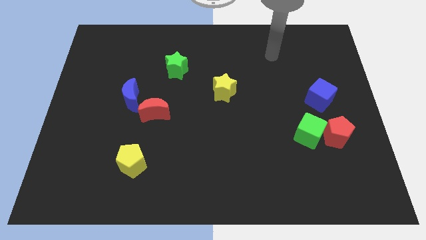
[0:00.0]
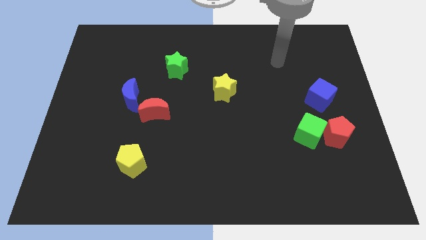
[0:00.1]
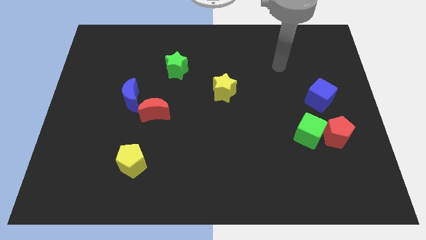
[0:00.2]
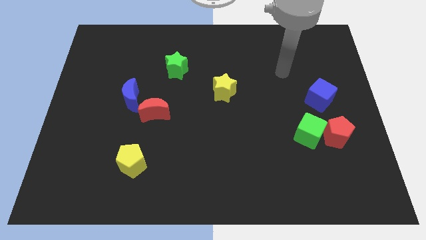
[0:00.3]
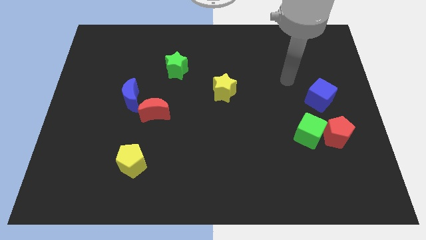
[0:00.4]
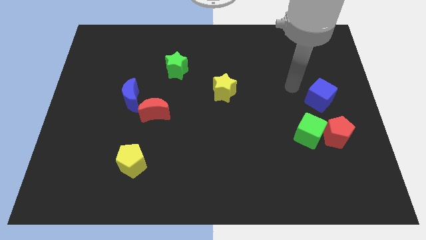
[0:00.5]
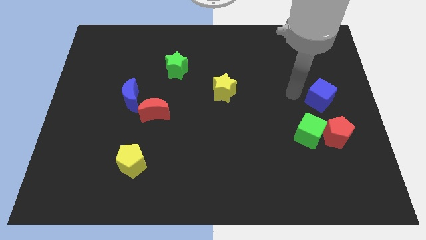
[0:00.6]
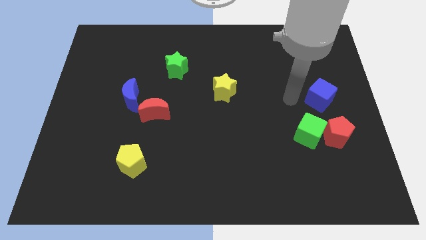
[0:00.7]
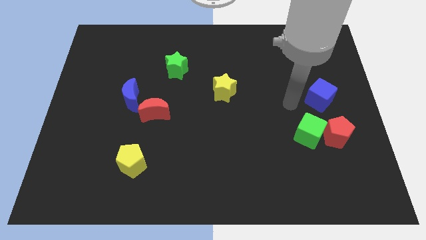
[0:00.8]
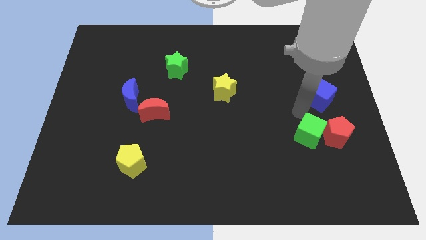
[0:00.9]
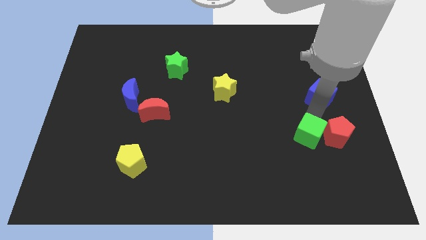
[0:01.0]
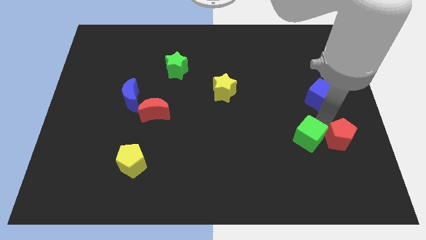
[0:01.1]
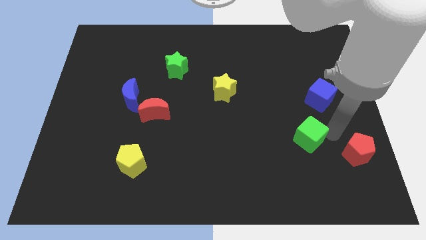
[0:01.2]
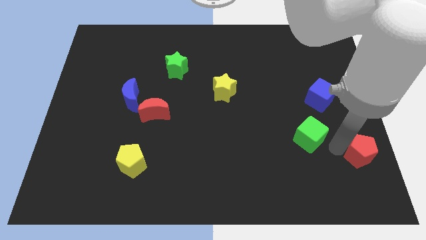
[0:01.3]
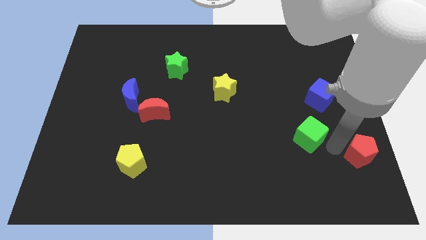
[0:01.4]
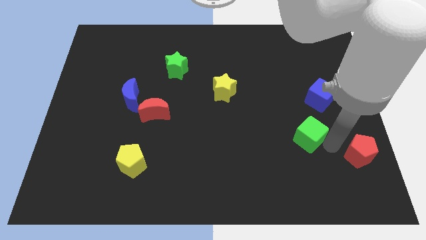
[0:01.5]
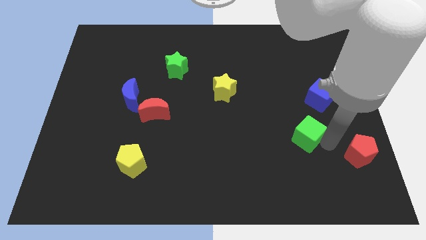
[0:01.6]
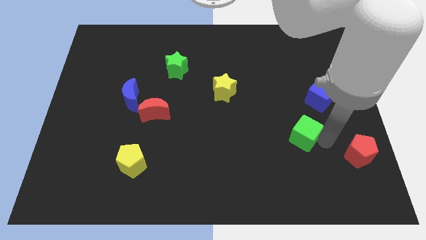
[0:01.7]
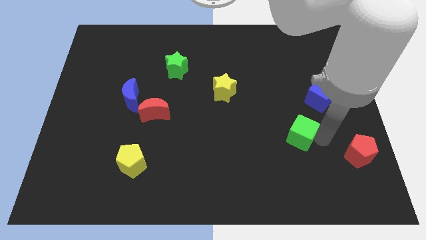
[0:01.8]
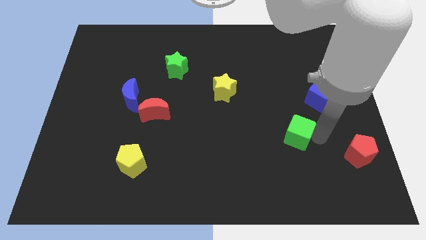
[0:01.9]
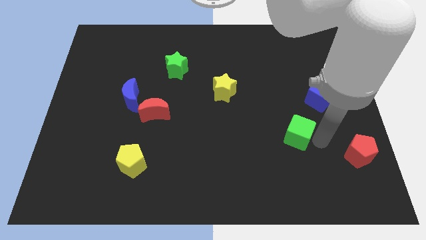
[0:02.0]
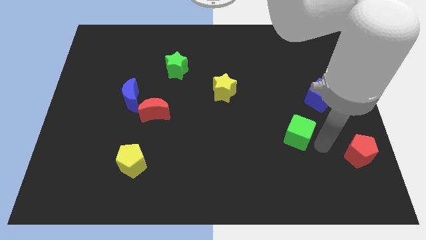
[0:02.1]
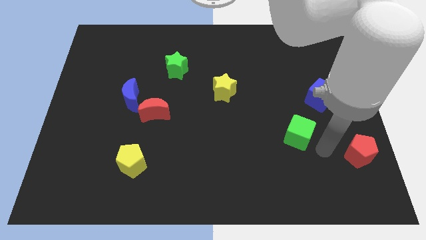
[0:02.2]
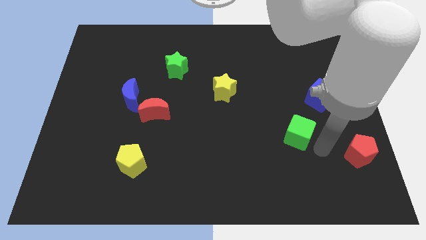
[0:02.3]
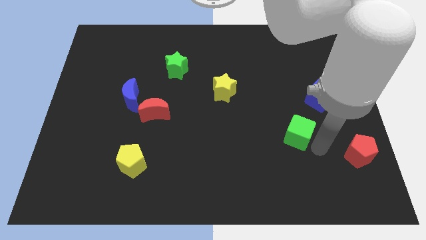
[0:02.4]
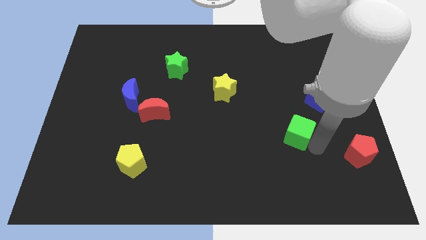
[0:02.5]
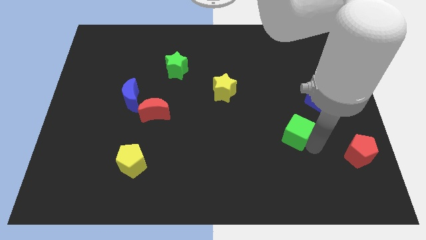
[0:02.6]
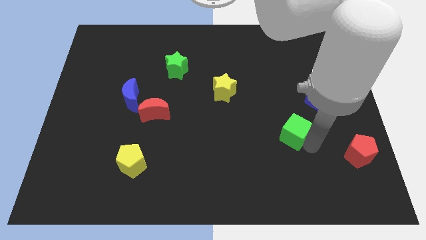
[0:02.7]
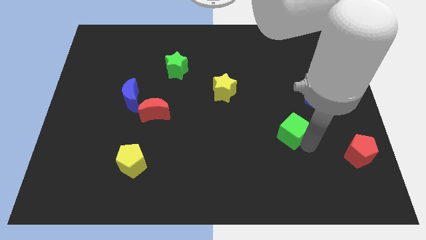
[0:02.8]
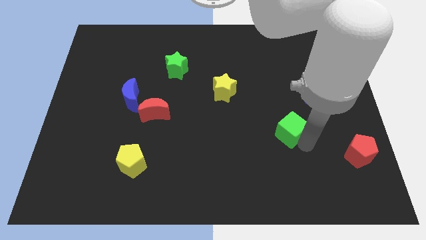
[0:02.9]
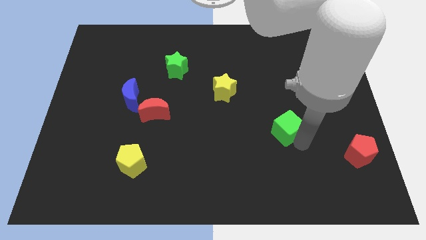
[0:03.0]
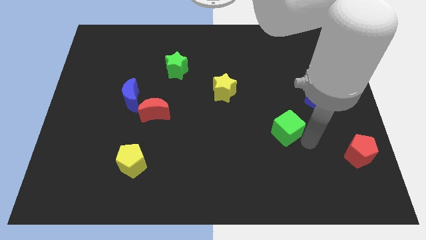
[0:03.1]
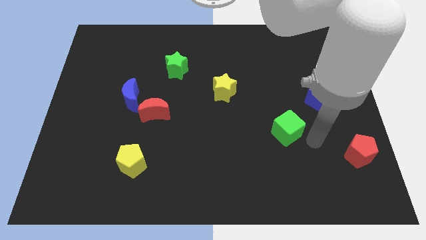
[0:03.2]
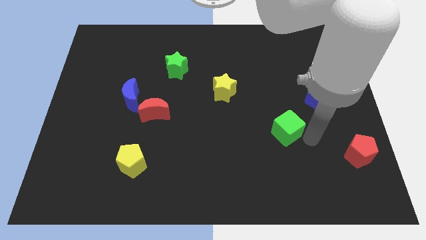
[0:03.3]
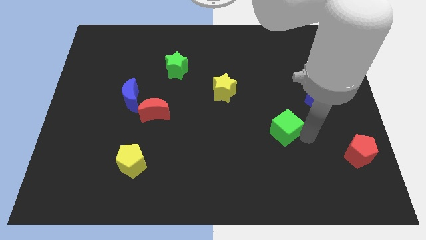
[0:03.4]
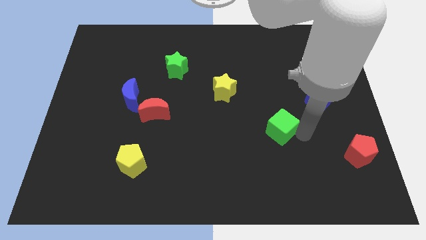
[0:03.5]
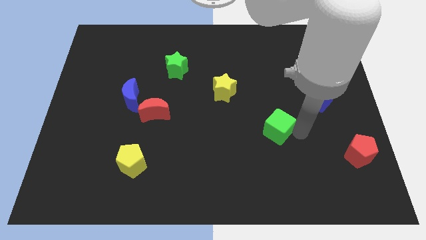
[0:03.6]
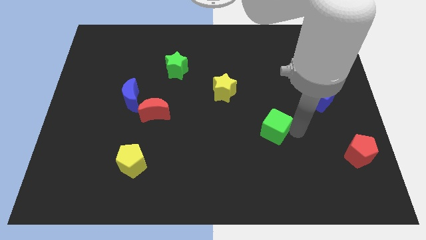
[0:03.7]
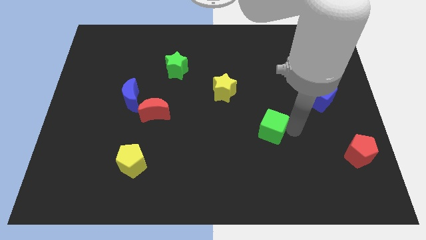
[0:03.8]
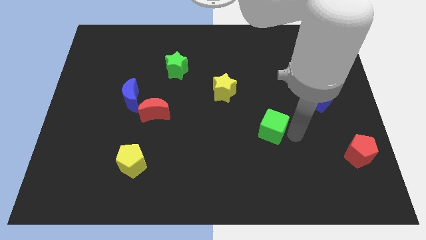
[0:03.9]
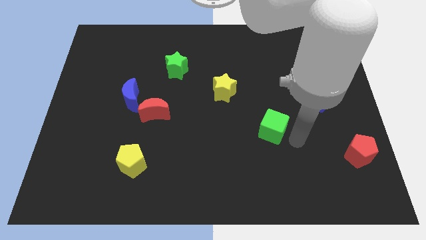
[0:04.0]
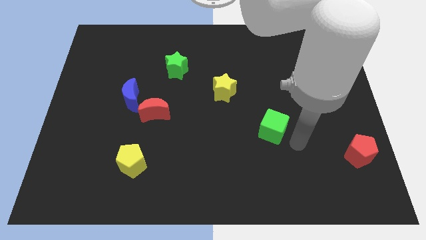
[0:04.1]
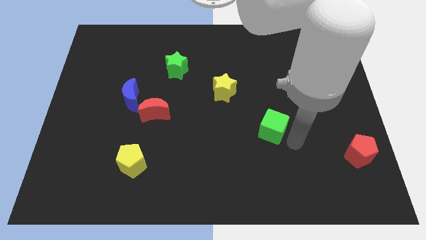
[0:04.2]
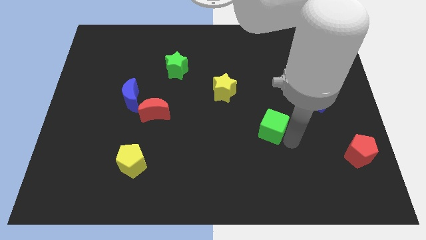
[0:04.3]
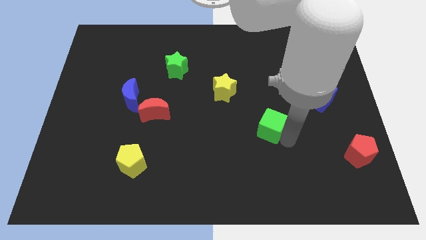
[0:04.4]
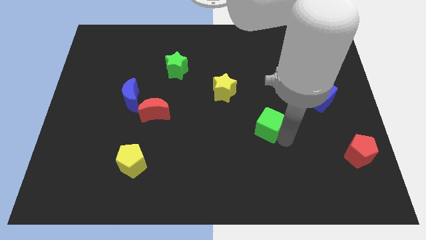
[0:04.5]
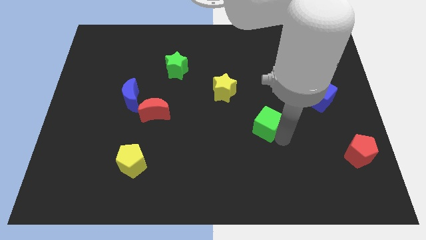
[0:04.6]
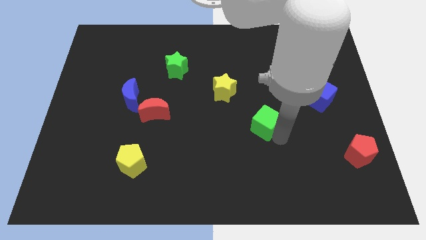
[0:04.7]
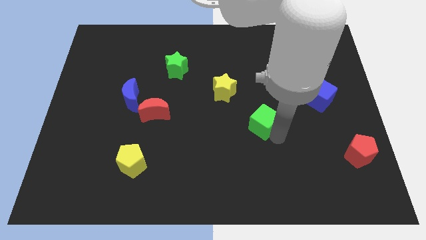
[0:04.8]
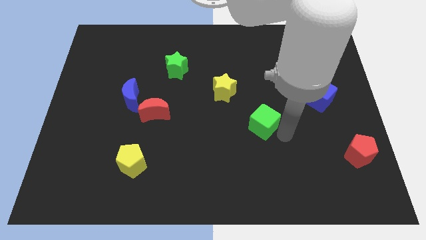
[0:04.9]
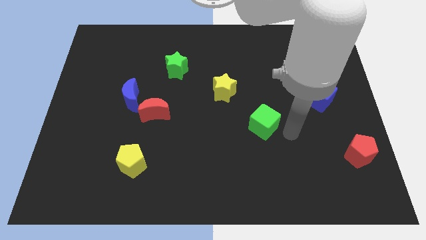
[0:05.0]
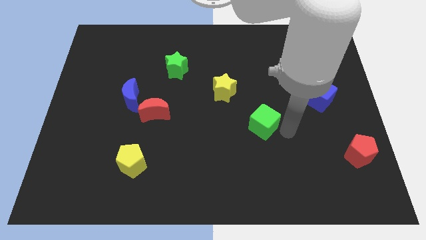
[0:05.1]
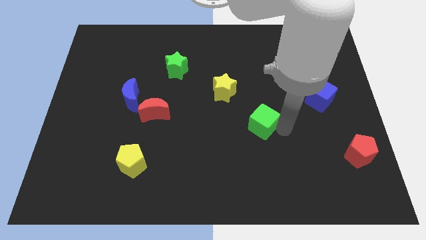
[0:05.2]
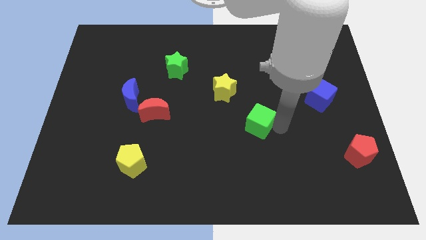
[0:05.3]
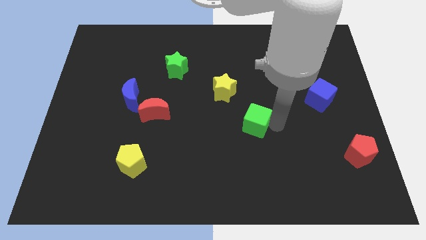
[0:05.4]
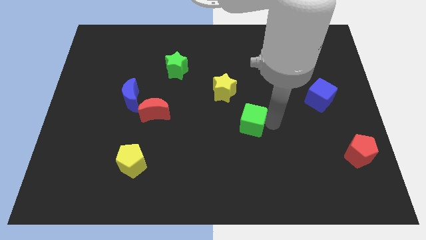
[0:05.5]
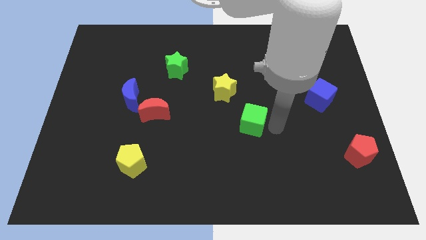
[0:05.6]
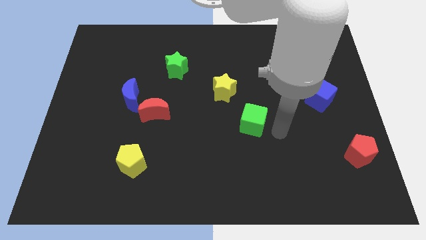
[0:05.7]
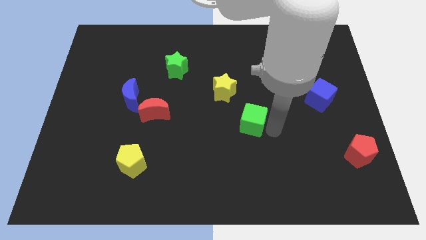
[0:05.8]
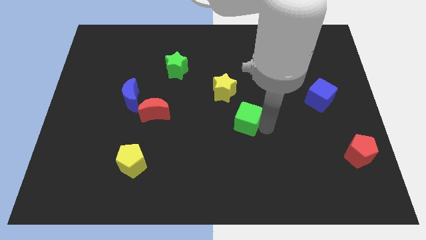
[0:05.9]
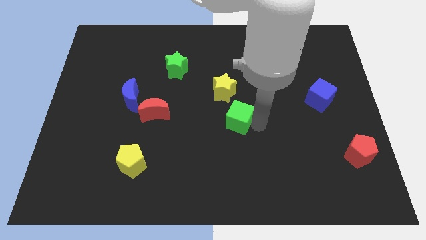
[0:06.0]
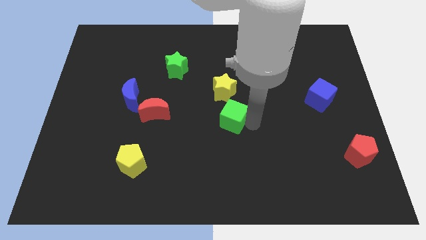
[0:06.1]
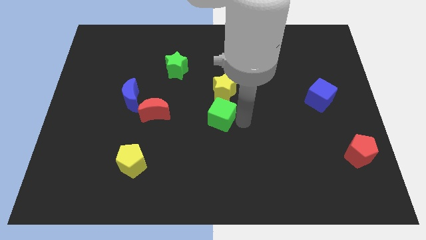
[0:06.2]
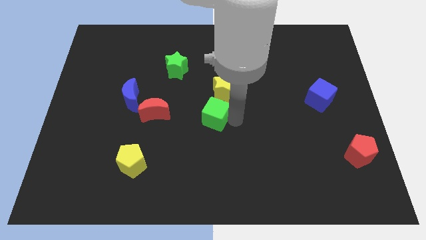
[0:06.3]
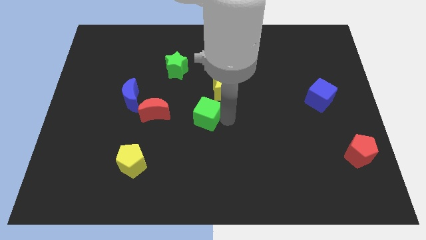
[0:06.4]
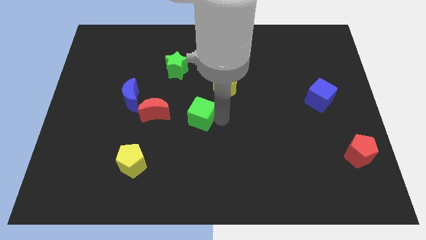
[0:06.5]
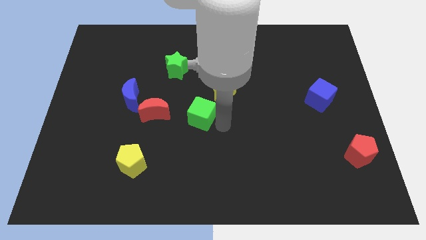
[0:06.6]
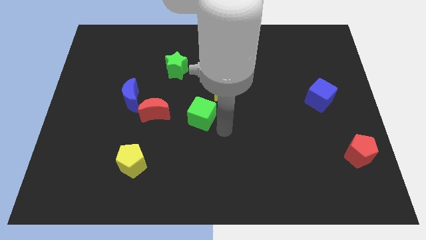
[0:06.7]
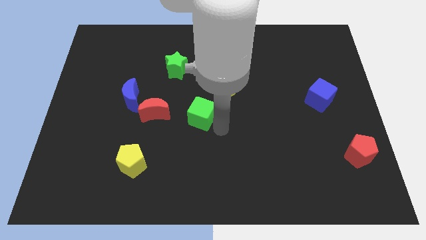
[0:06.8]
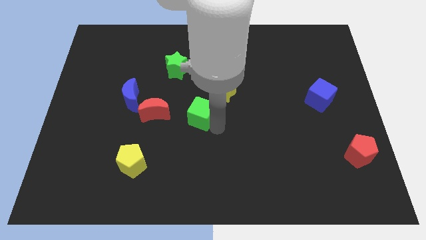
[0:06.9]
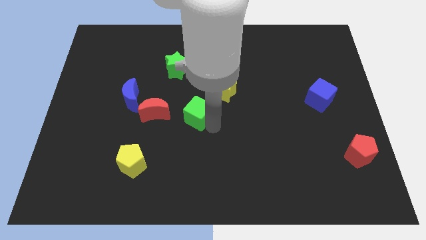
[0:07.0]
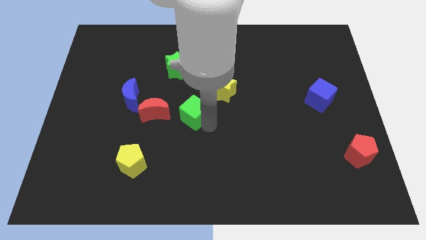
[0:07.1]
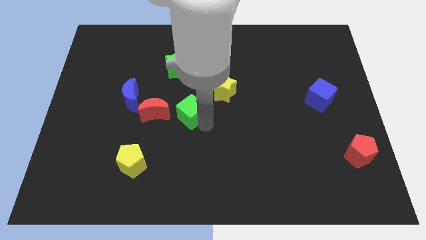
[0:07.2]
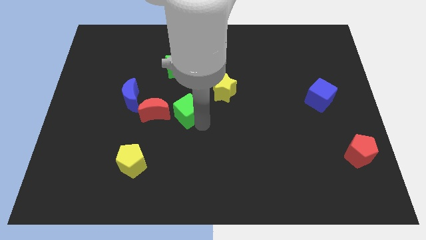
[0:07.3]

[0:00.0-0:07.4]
slide the green cube to the right side of the blue moon

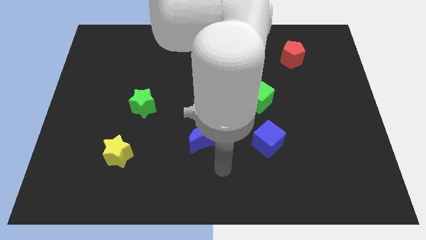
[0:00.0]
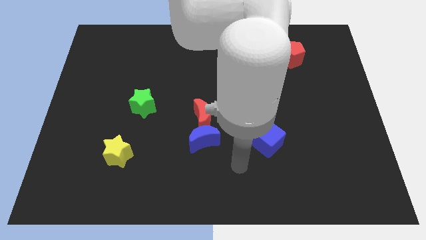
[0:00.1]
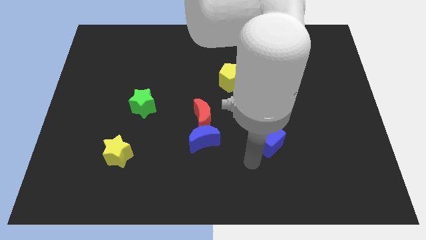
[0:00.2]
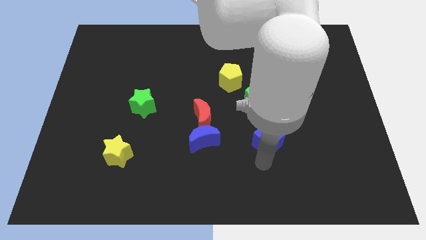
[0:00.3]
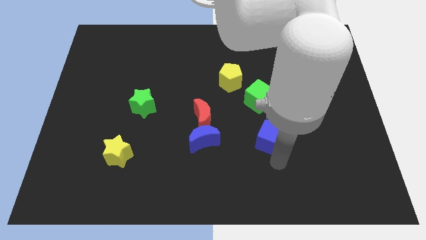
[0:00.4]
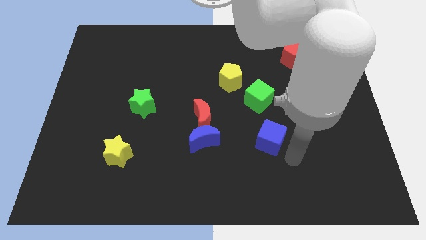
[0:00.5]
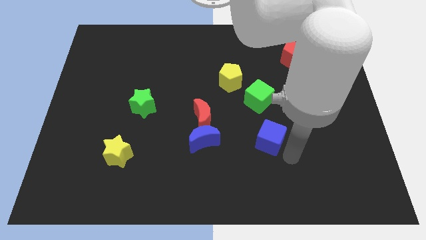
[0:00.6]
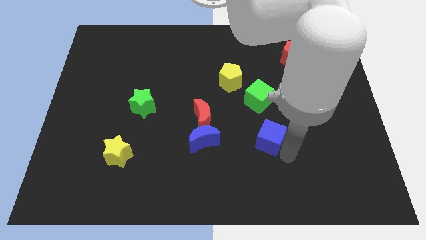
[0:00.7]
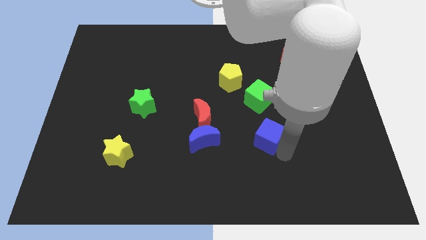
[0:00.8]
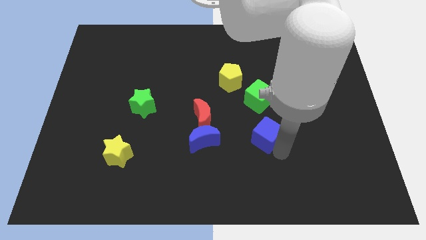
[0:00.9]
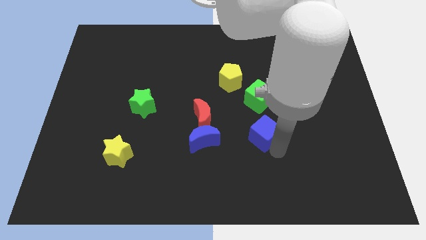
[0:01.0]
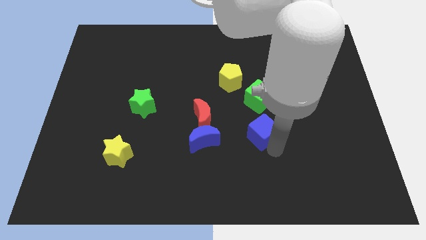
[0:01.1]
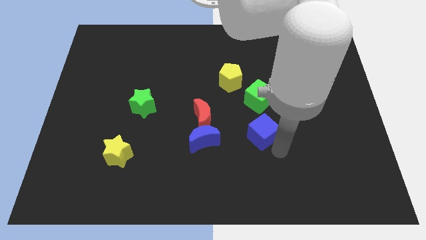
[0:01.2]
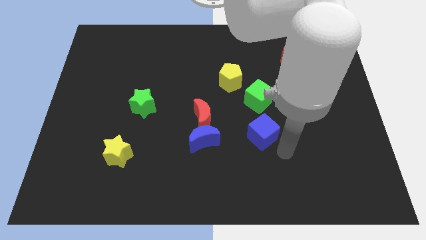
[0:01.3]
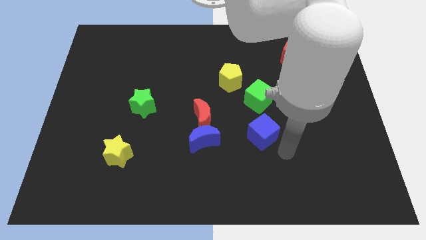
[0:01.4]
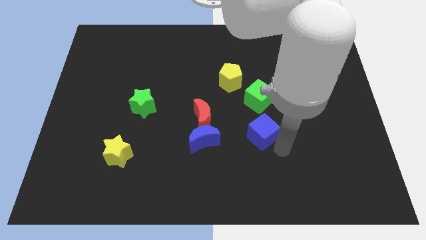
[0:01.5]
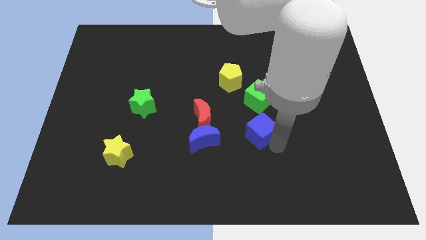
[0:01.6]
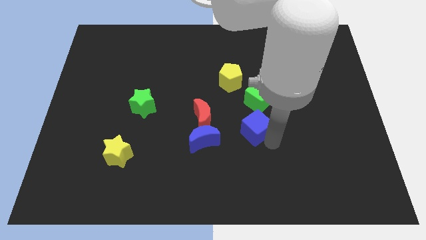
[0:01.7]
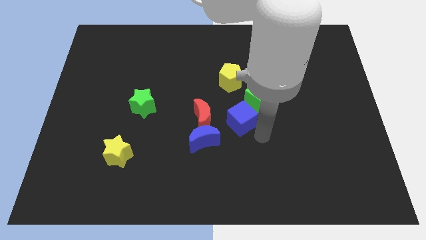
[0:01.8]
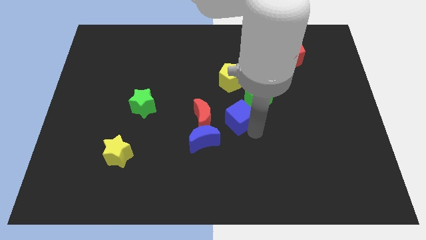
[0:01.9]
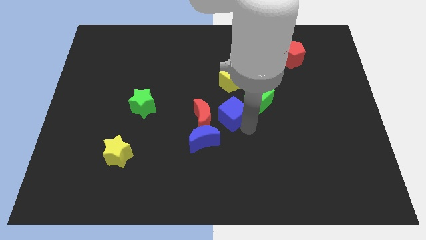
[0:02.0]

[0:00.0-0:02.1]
move the blue cube to the top right of the red moon
